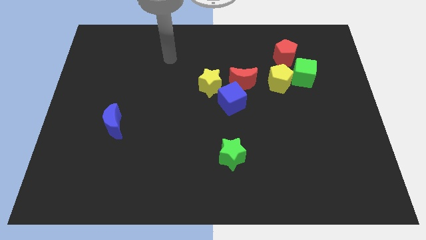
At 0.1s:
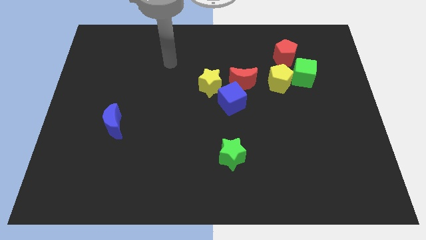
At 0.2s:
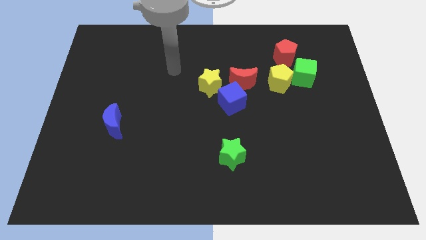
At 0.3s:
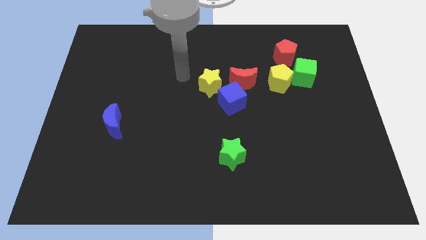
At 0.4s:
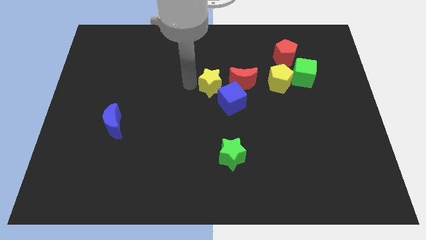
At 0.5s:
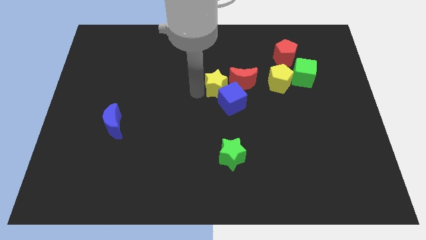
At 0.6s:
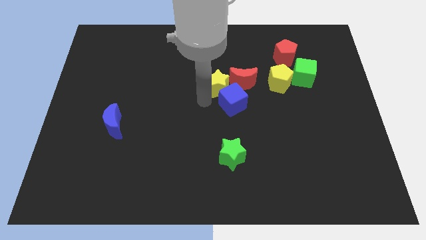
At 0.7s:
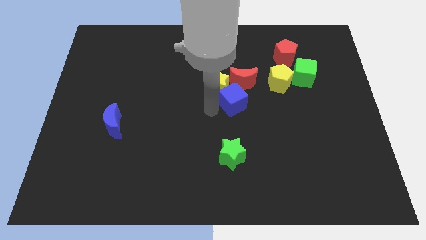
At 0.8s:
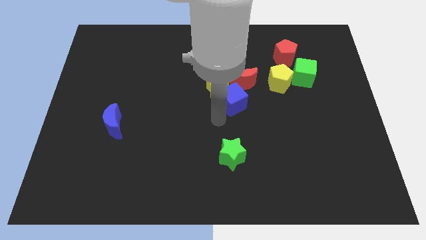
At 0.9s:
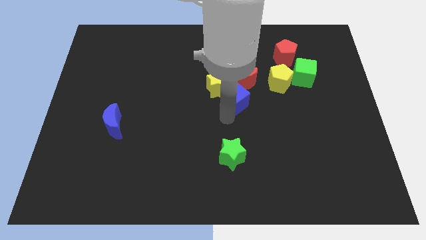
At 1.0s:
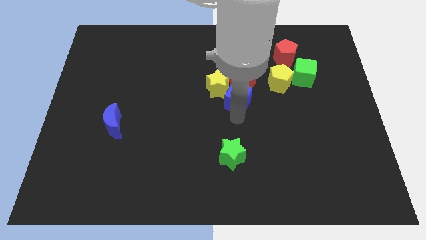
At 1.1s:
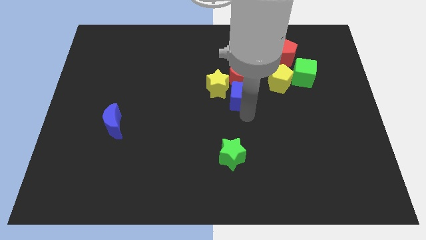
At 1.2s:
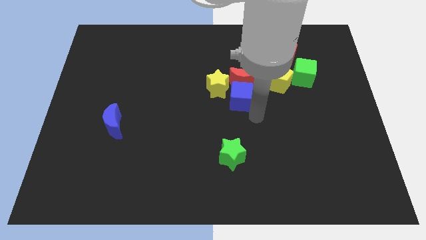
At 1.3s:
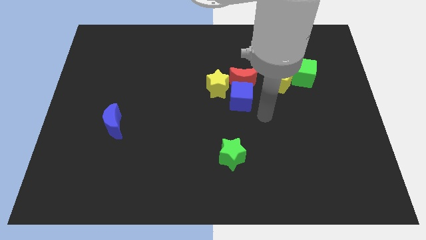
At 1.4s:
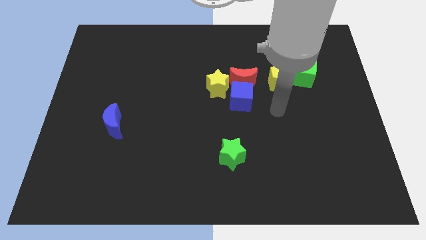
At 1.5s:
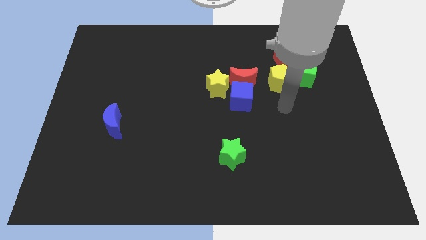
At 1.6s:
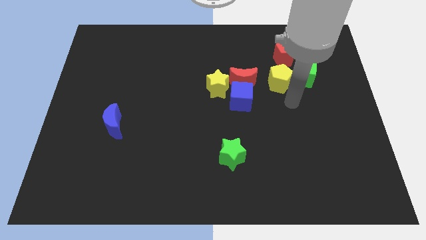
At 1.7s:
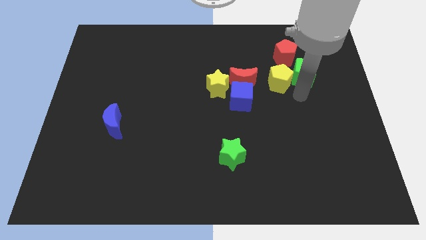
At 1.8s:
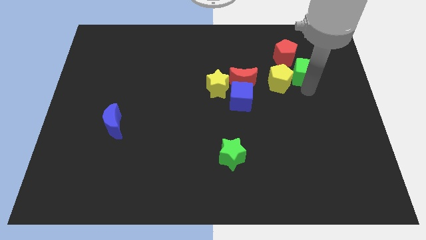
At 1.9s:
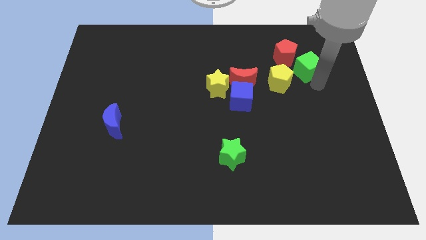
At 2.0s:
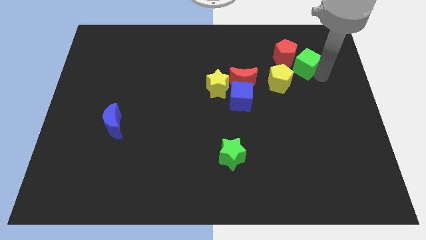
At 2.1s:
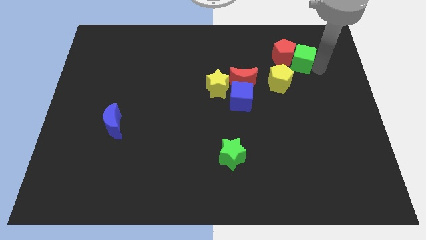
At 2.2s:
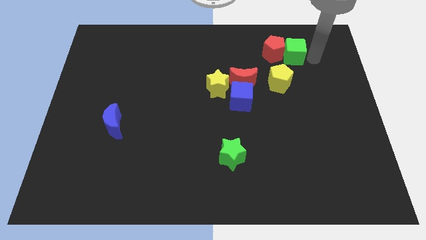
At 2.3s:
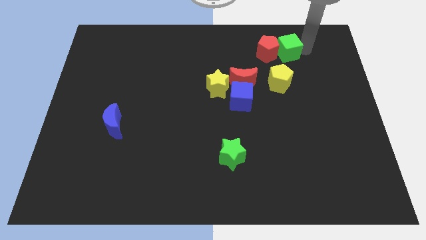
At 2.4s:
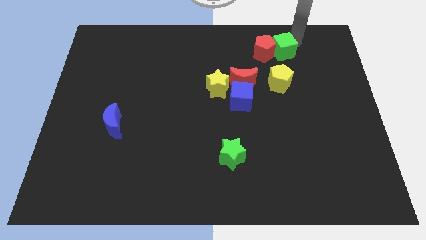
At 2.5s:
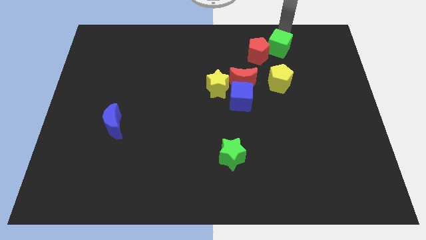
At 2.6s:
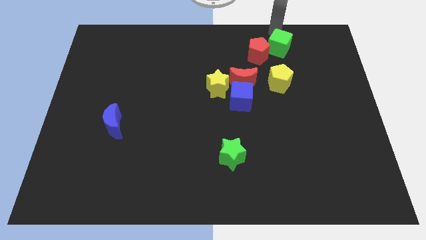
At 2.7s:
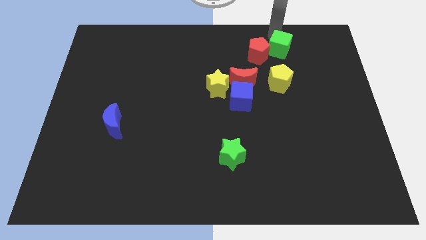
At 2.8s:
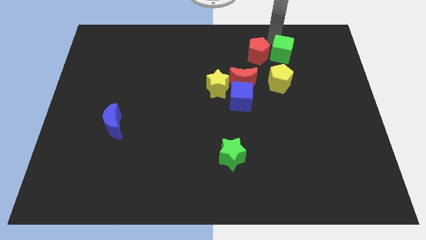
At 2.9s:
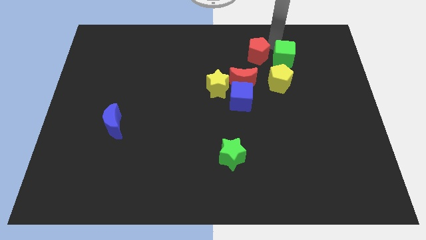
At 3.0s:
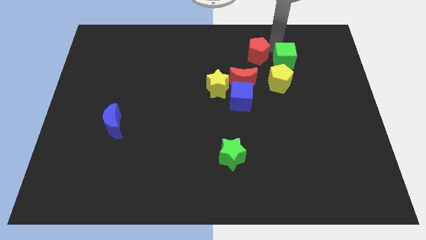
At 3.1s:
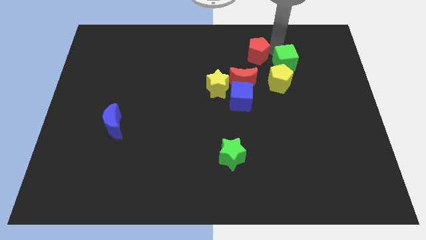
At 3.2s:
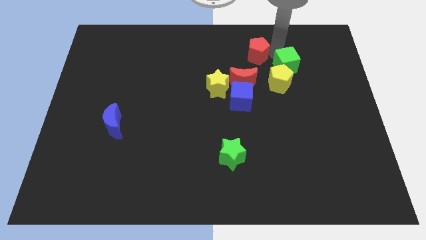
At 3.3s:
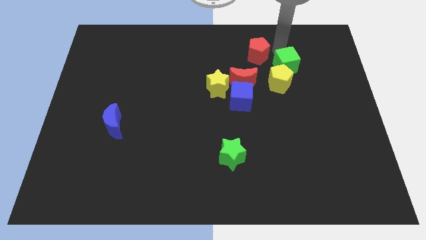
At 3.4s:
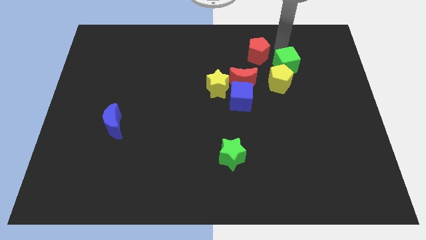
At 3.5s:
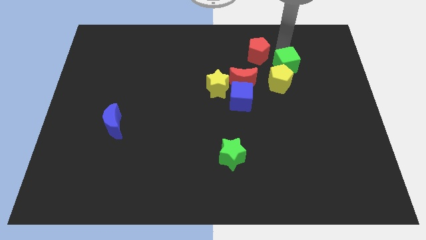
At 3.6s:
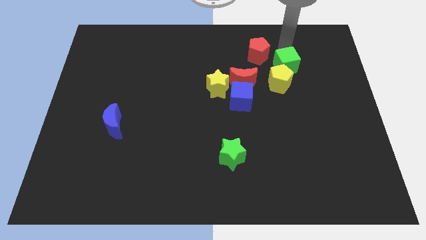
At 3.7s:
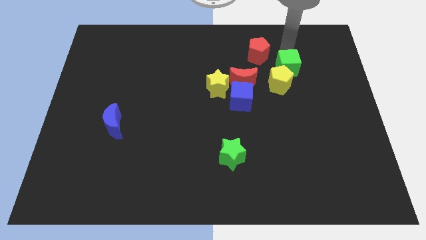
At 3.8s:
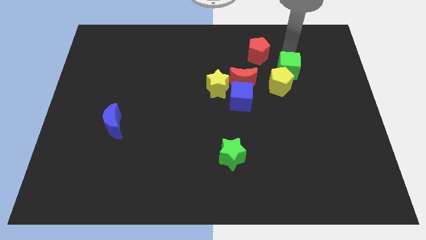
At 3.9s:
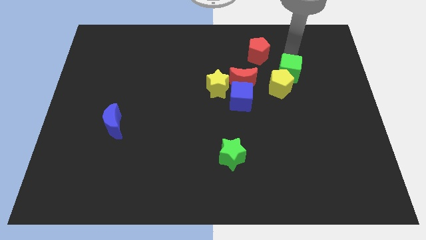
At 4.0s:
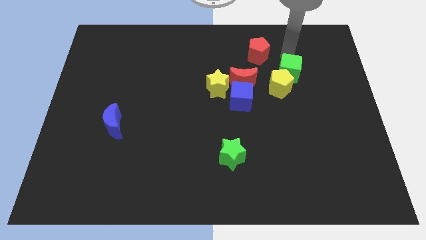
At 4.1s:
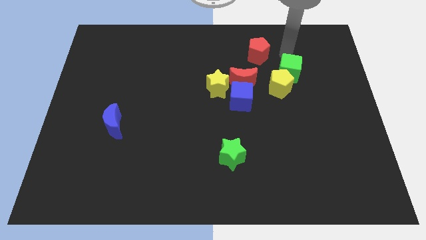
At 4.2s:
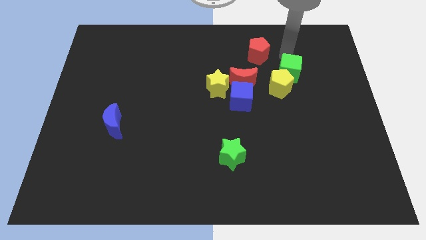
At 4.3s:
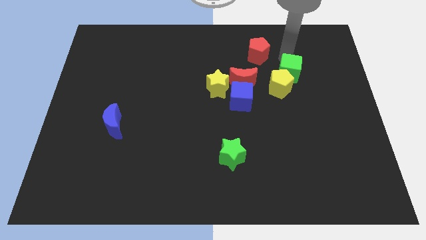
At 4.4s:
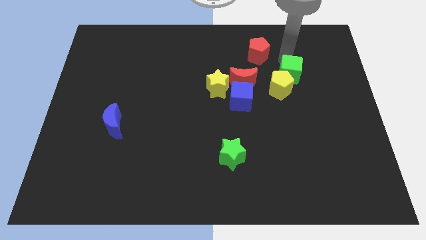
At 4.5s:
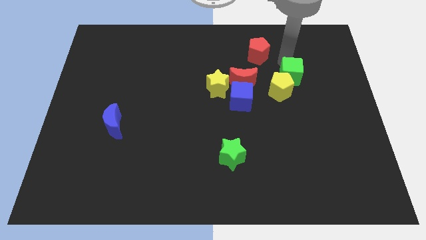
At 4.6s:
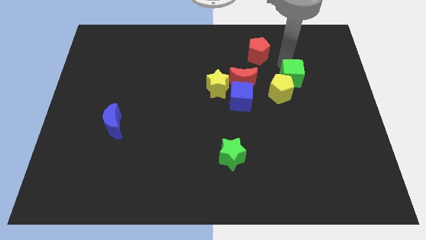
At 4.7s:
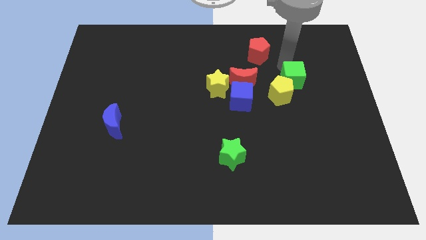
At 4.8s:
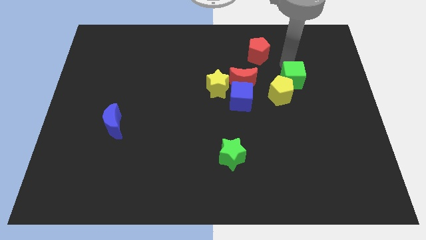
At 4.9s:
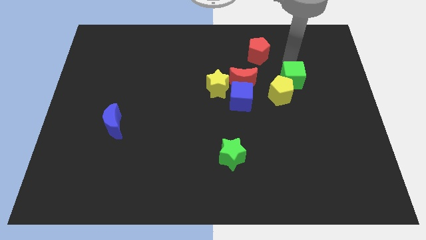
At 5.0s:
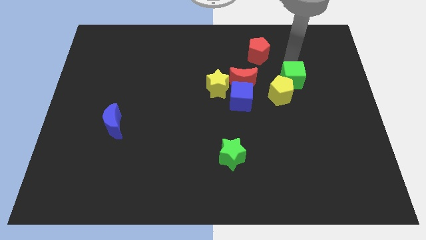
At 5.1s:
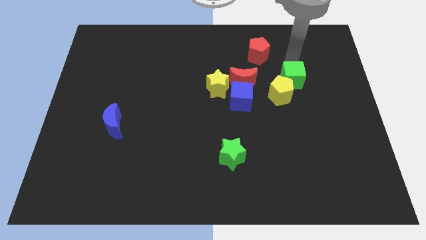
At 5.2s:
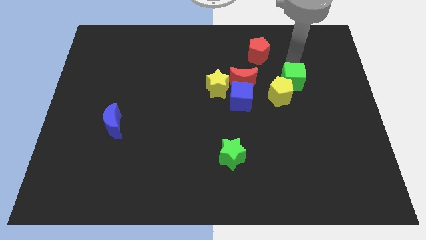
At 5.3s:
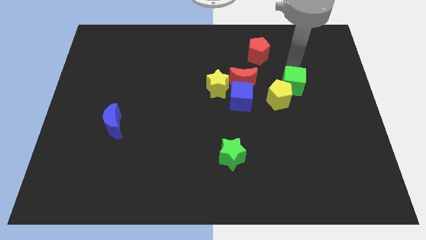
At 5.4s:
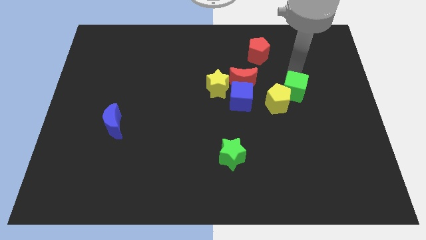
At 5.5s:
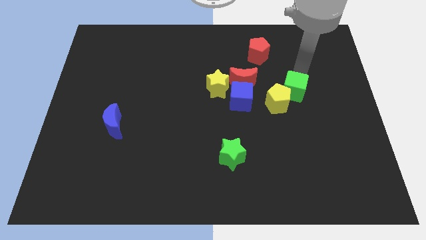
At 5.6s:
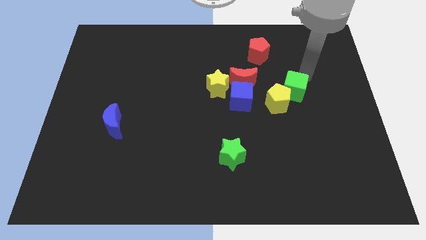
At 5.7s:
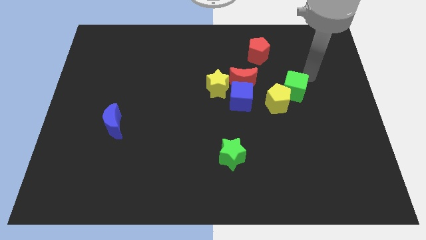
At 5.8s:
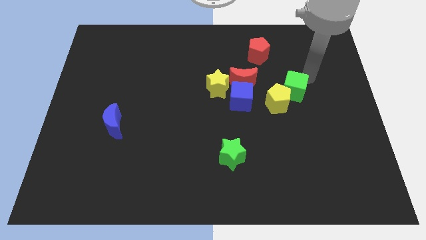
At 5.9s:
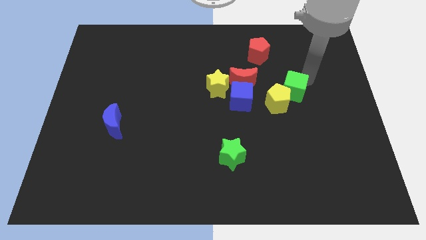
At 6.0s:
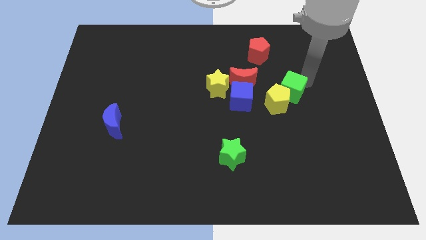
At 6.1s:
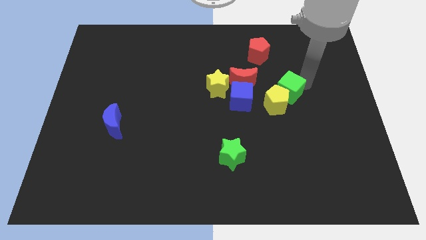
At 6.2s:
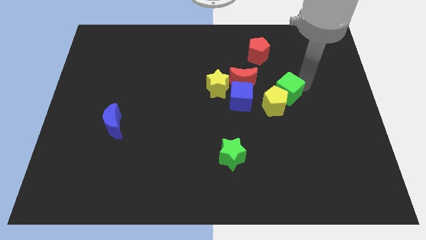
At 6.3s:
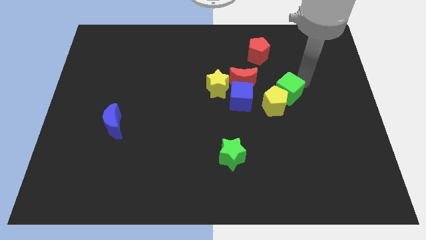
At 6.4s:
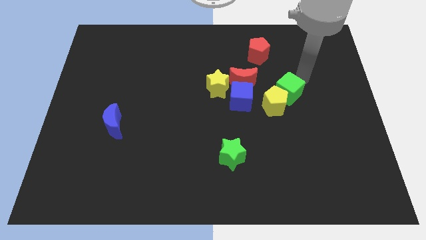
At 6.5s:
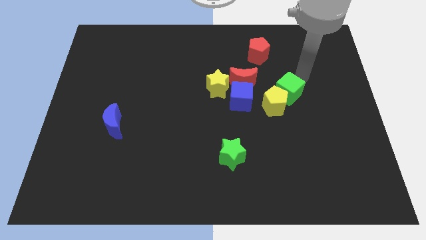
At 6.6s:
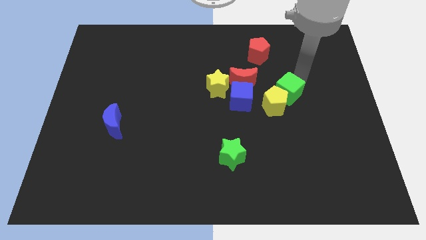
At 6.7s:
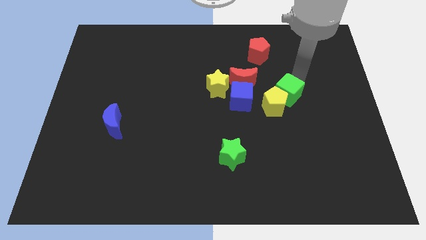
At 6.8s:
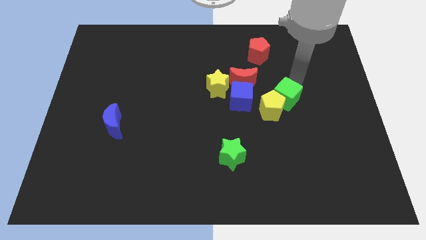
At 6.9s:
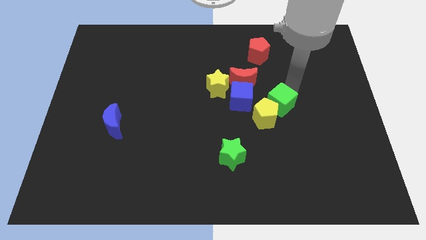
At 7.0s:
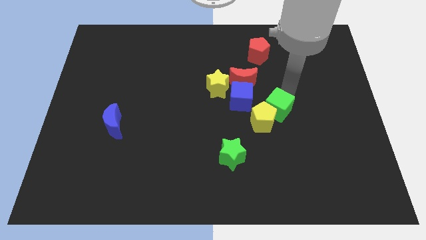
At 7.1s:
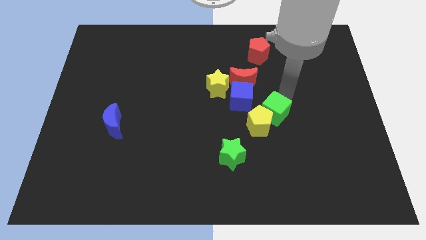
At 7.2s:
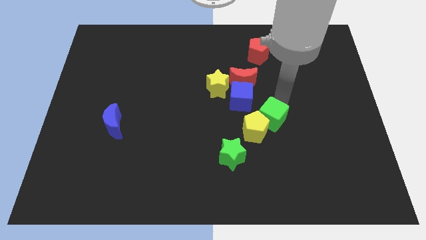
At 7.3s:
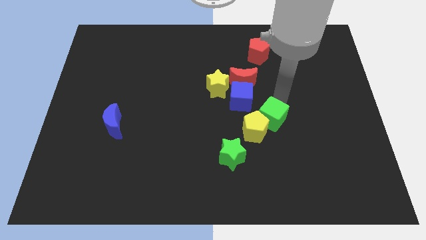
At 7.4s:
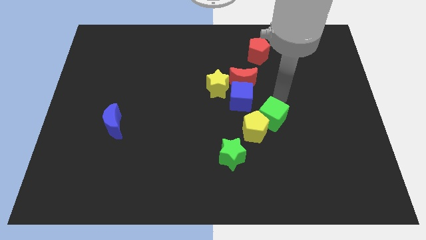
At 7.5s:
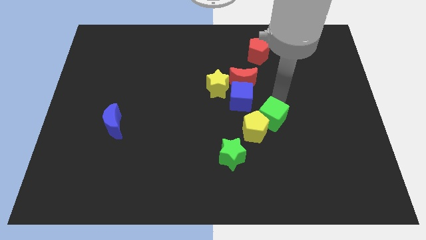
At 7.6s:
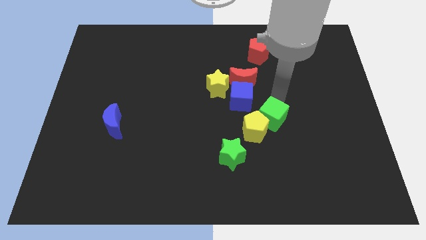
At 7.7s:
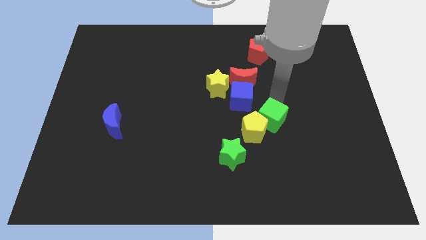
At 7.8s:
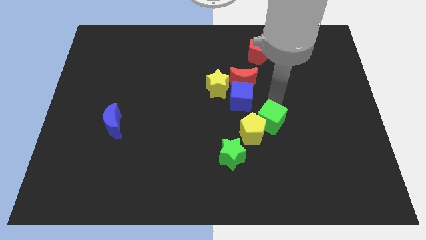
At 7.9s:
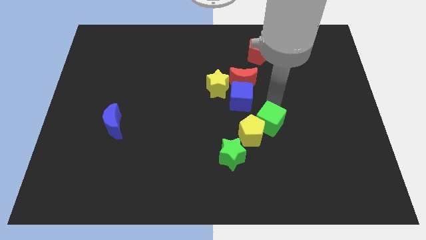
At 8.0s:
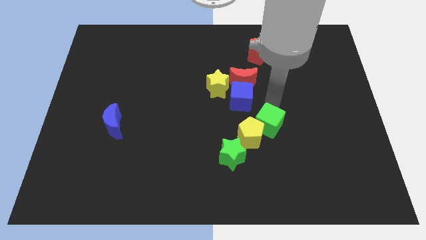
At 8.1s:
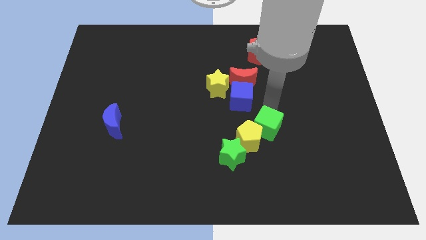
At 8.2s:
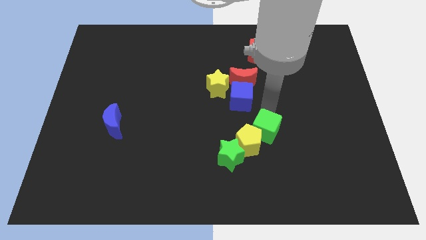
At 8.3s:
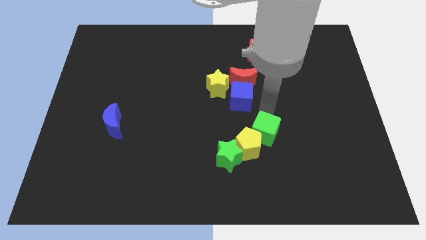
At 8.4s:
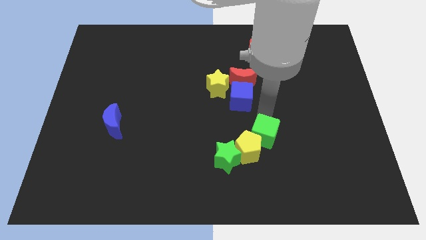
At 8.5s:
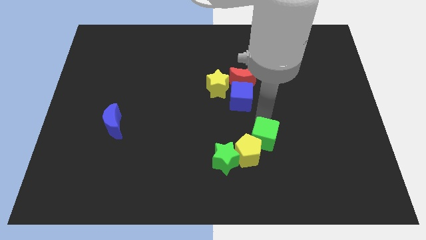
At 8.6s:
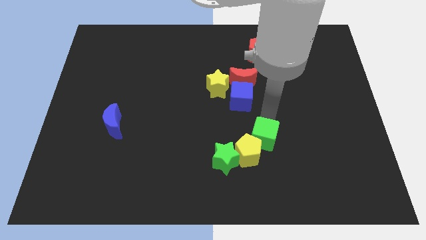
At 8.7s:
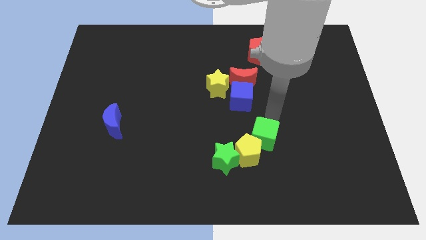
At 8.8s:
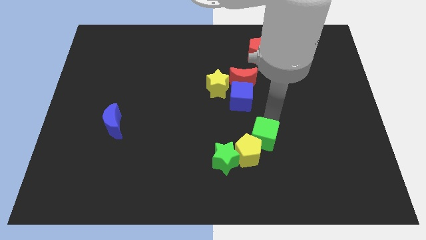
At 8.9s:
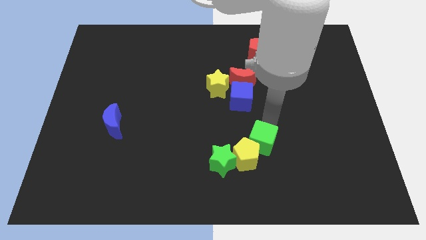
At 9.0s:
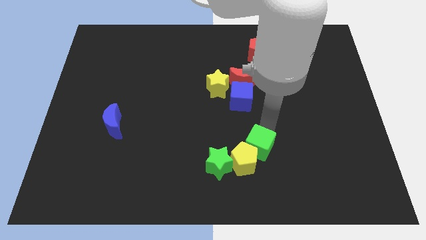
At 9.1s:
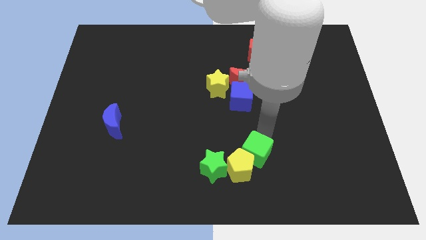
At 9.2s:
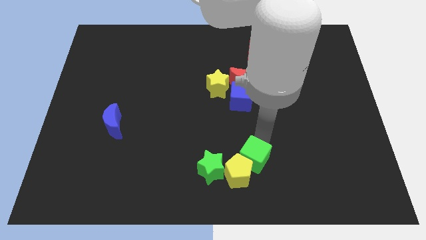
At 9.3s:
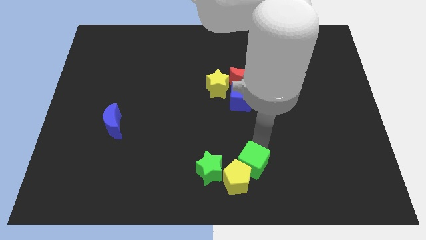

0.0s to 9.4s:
put the green cube to the bottom side
